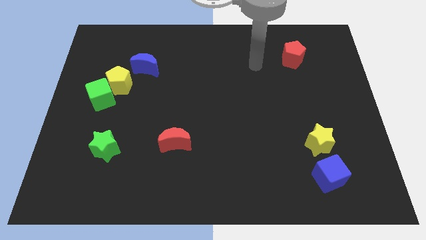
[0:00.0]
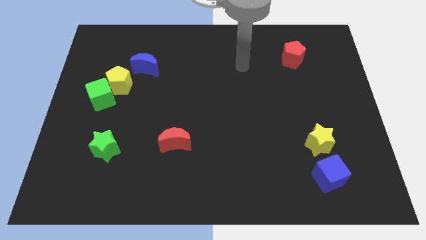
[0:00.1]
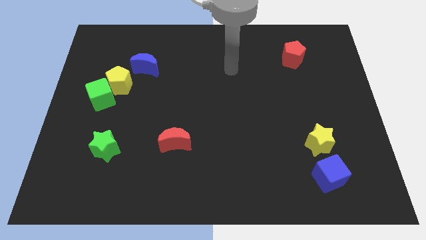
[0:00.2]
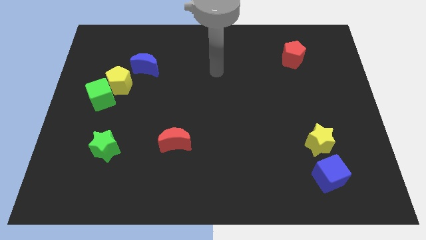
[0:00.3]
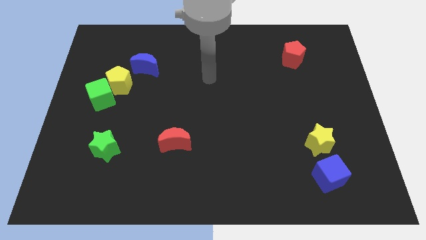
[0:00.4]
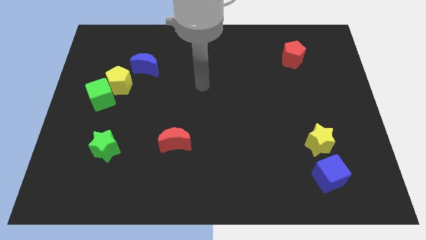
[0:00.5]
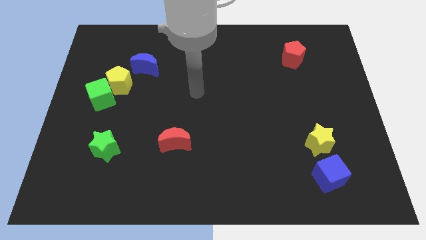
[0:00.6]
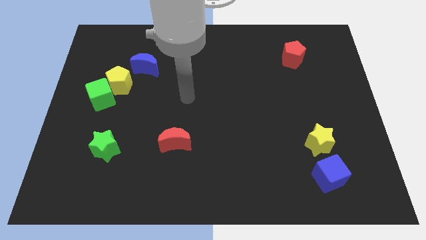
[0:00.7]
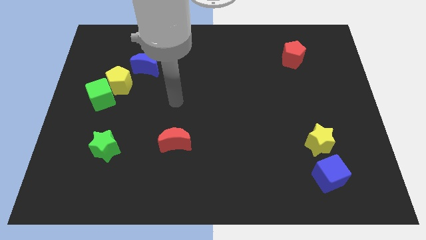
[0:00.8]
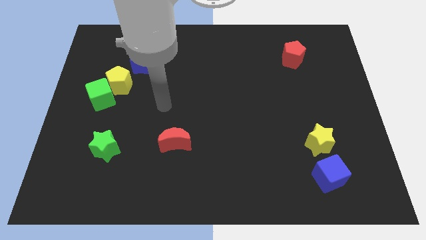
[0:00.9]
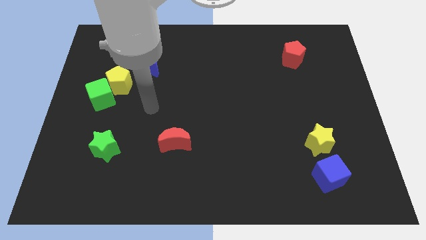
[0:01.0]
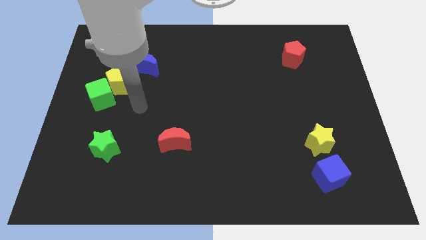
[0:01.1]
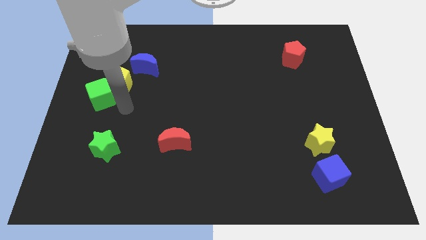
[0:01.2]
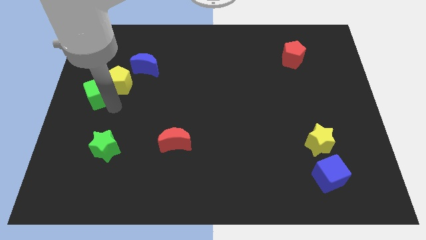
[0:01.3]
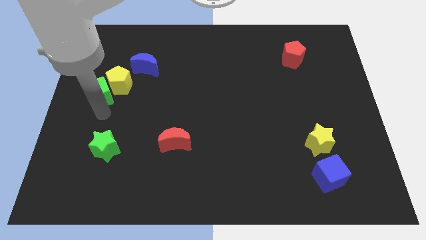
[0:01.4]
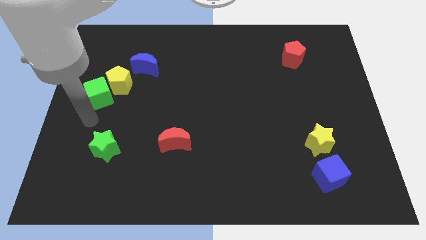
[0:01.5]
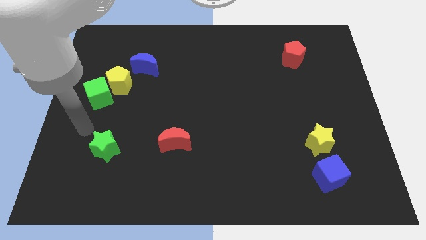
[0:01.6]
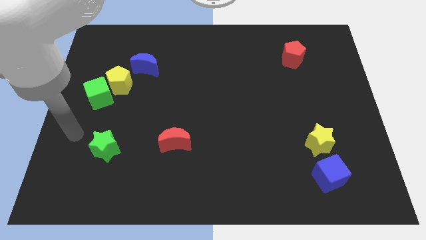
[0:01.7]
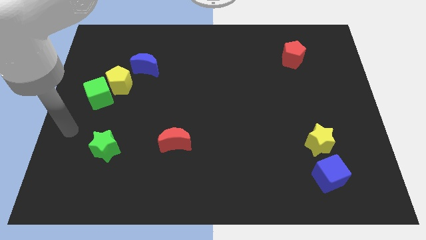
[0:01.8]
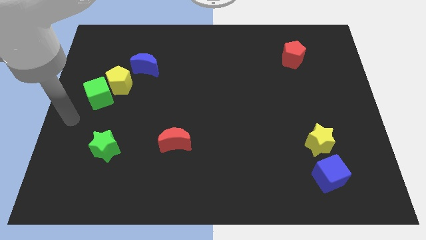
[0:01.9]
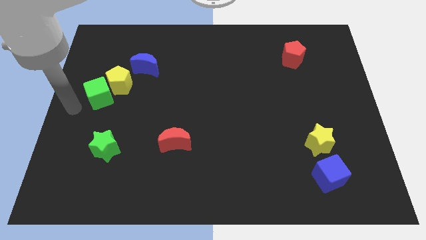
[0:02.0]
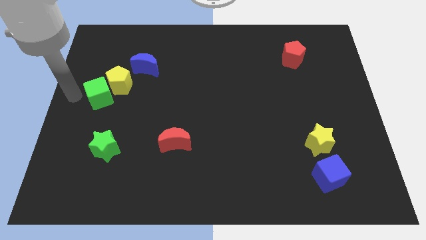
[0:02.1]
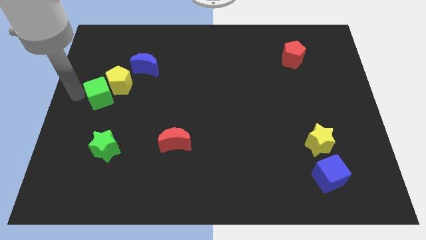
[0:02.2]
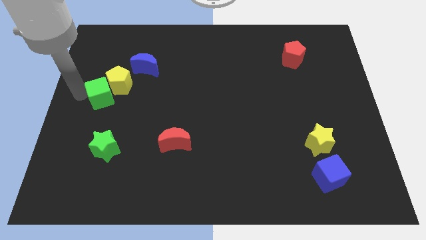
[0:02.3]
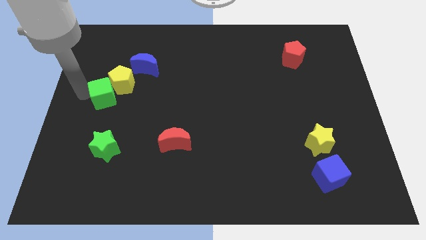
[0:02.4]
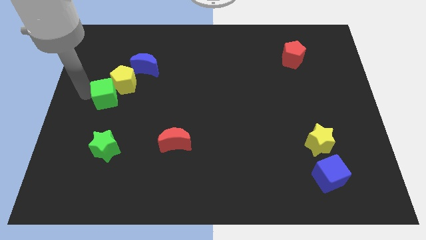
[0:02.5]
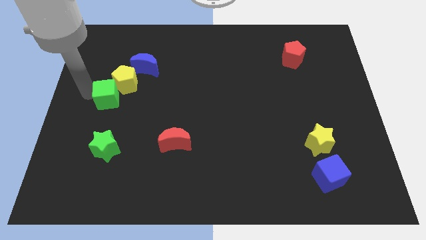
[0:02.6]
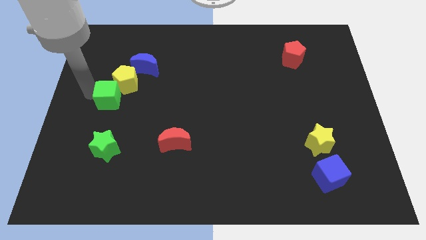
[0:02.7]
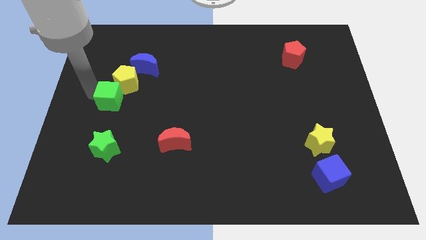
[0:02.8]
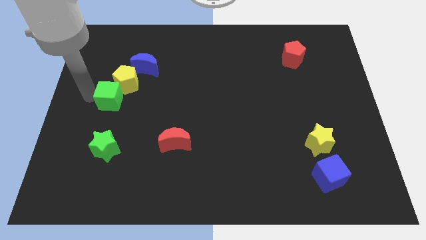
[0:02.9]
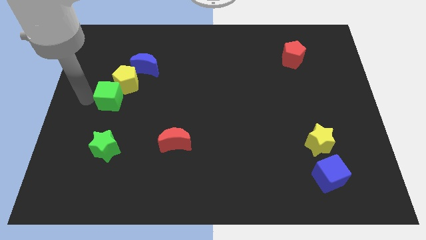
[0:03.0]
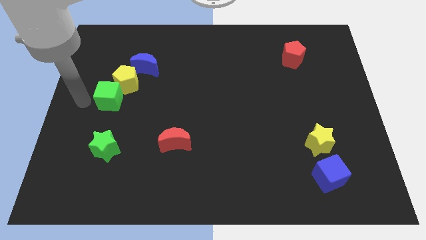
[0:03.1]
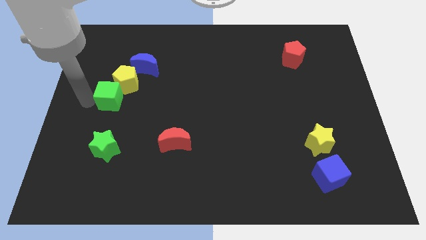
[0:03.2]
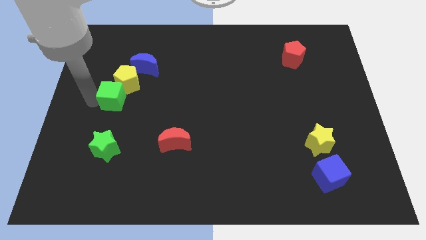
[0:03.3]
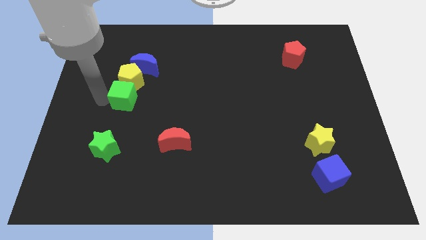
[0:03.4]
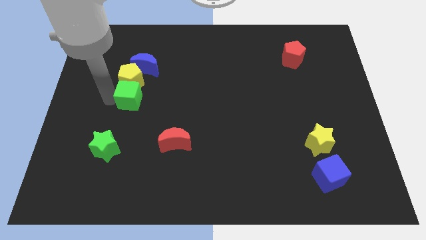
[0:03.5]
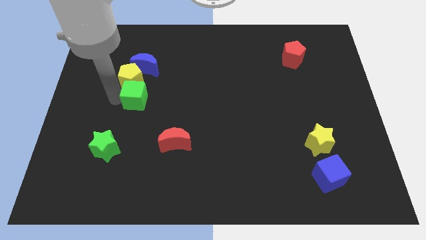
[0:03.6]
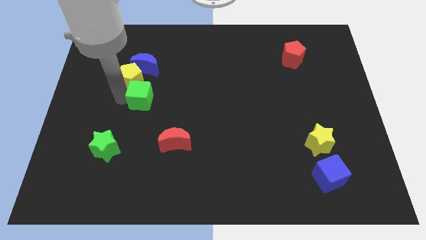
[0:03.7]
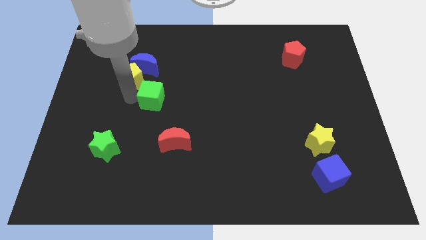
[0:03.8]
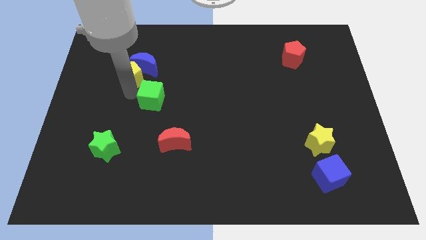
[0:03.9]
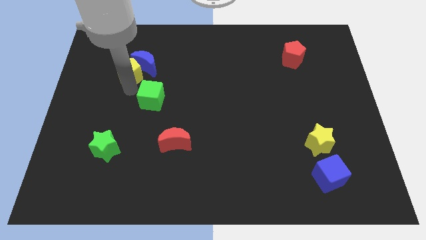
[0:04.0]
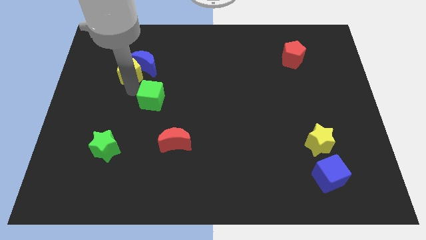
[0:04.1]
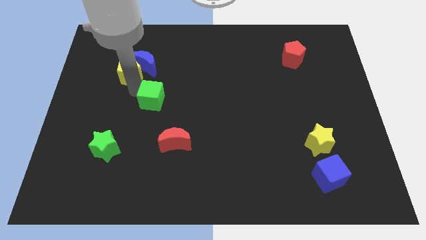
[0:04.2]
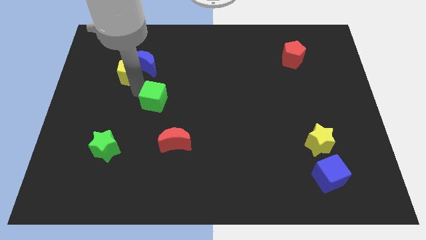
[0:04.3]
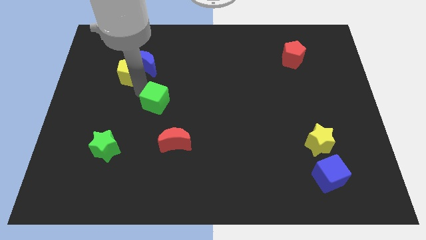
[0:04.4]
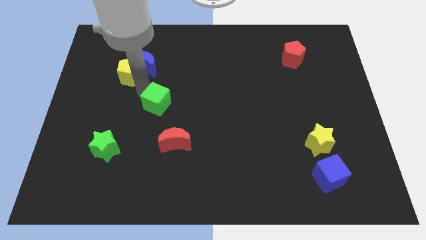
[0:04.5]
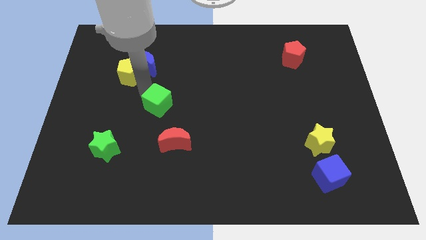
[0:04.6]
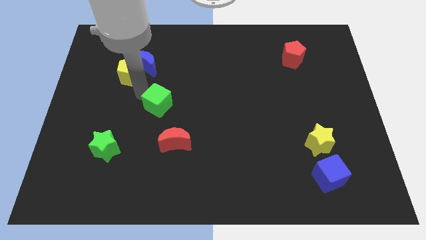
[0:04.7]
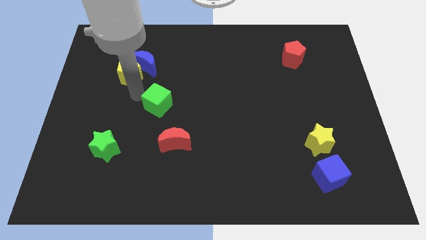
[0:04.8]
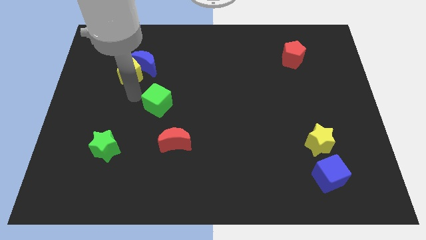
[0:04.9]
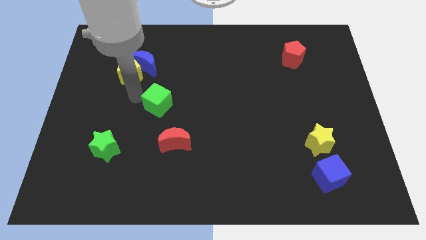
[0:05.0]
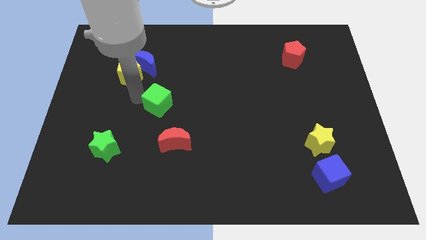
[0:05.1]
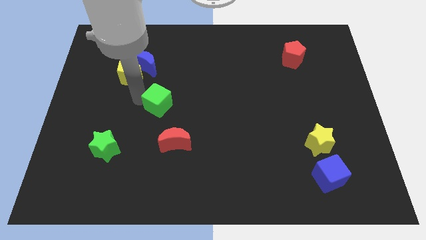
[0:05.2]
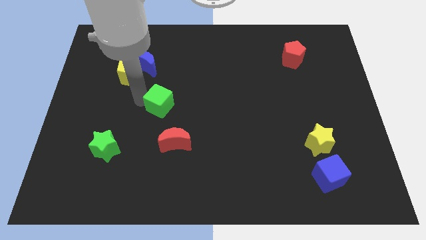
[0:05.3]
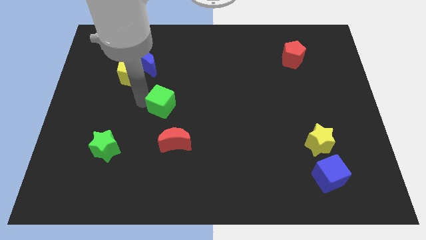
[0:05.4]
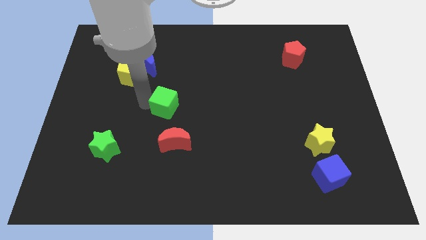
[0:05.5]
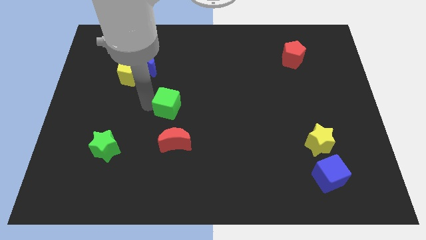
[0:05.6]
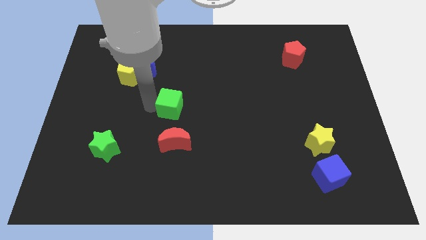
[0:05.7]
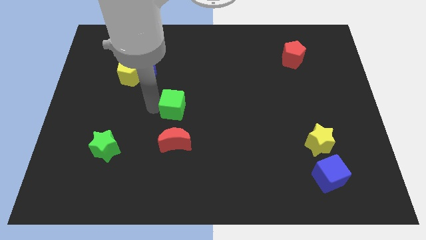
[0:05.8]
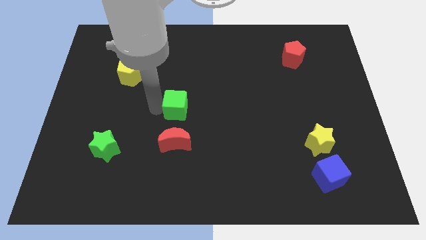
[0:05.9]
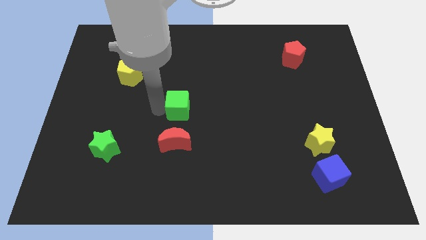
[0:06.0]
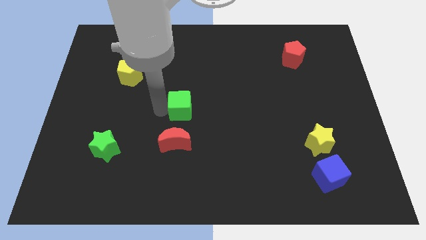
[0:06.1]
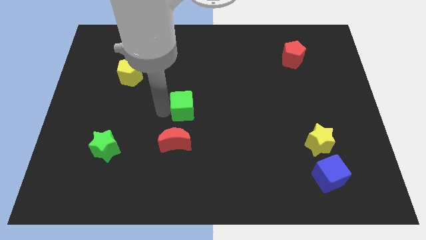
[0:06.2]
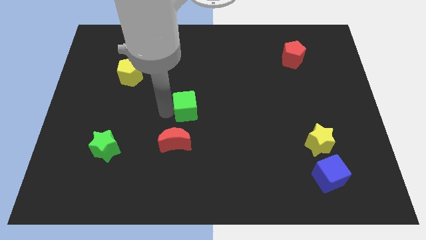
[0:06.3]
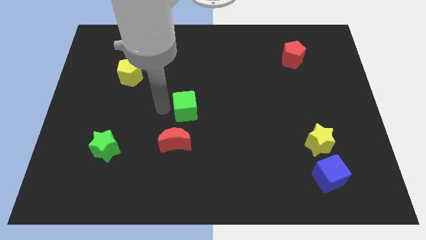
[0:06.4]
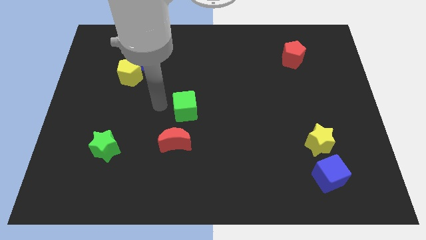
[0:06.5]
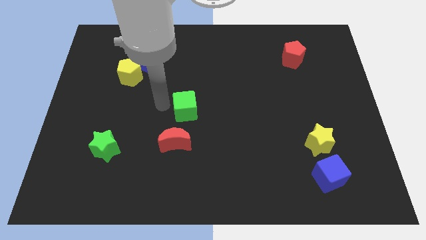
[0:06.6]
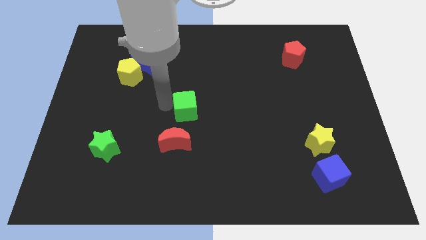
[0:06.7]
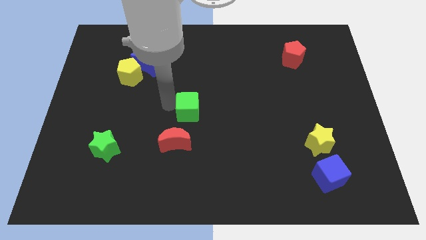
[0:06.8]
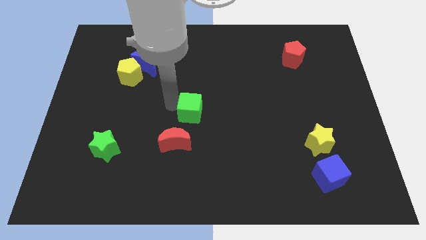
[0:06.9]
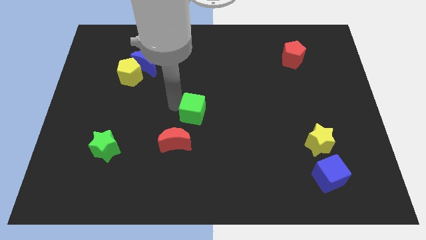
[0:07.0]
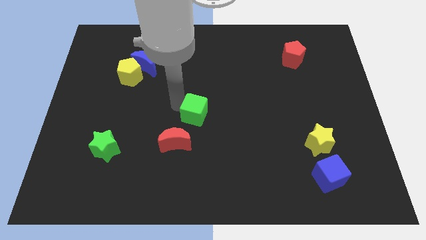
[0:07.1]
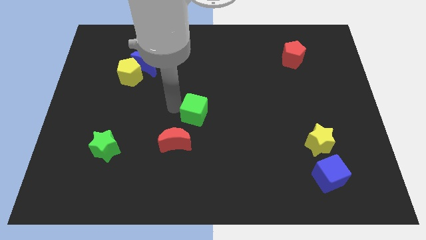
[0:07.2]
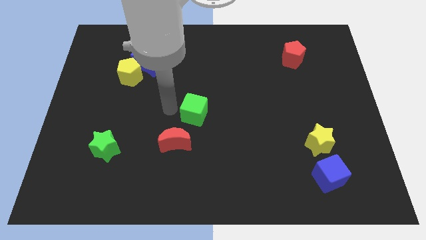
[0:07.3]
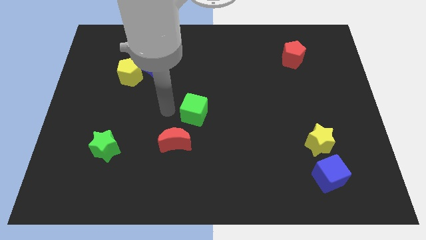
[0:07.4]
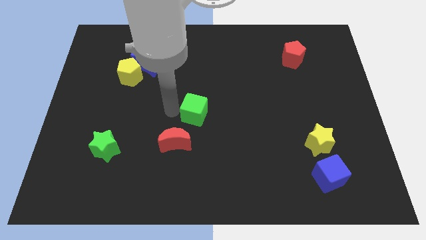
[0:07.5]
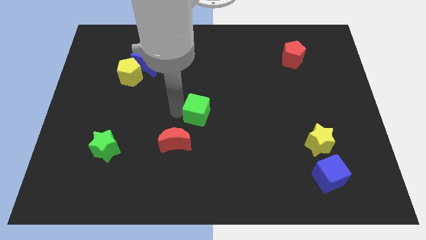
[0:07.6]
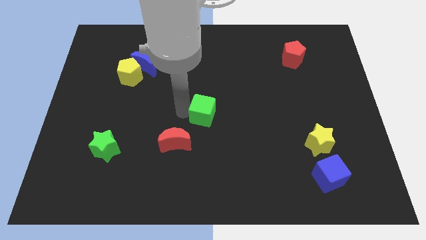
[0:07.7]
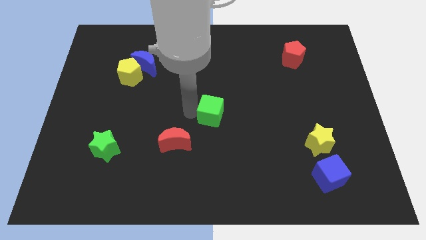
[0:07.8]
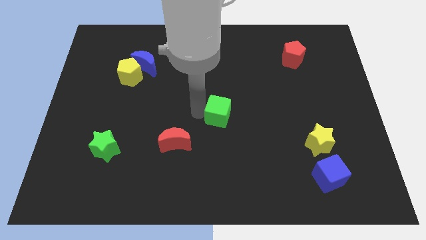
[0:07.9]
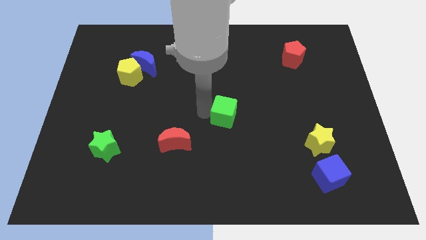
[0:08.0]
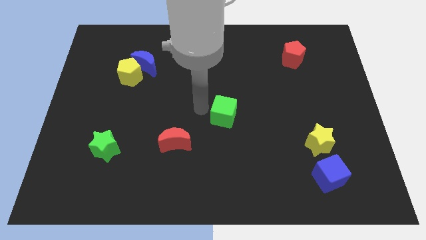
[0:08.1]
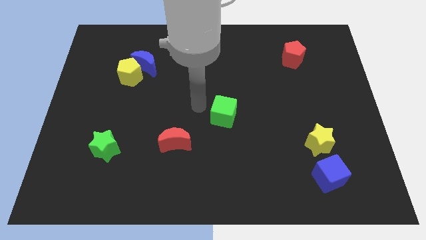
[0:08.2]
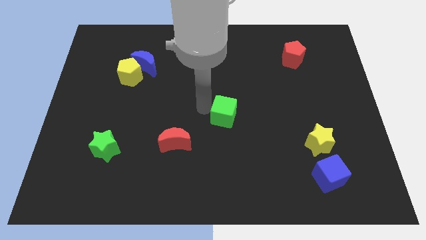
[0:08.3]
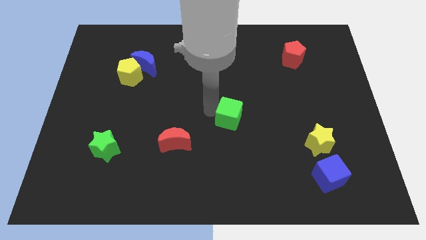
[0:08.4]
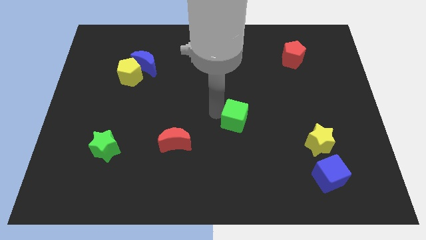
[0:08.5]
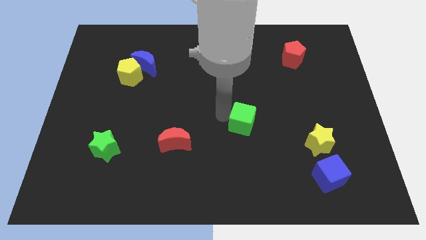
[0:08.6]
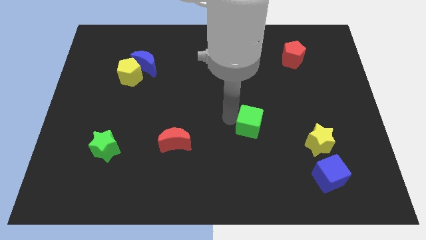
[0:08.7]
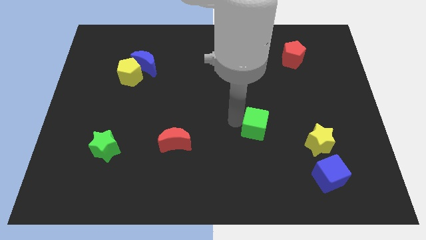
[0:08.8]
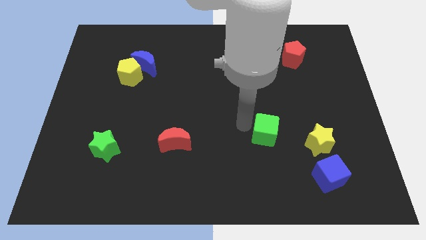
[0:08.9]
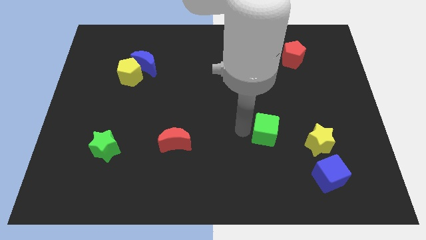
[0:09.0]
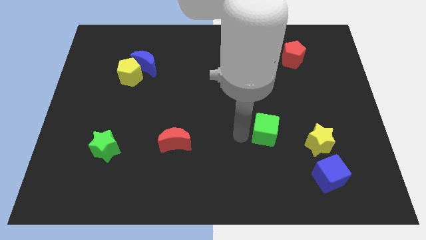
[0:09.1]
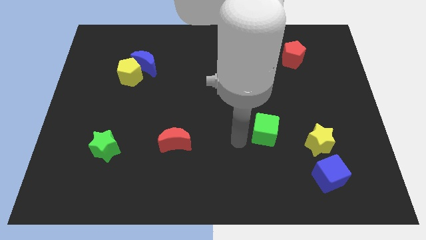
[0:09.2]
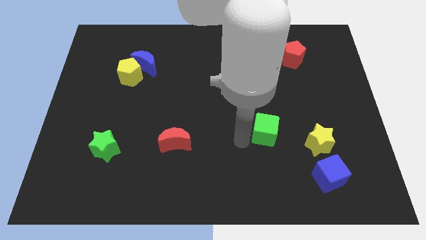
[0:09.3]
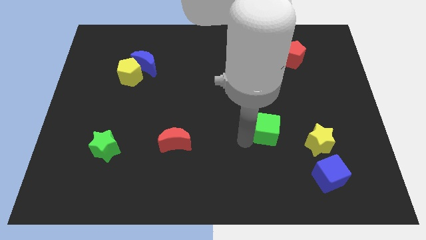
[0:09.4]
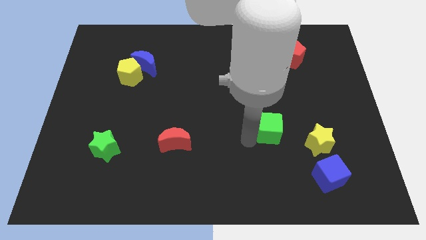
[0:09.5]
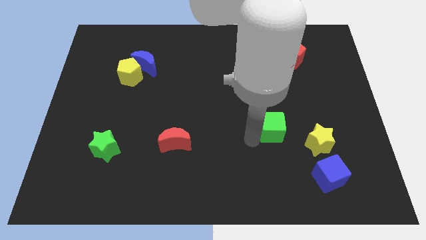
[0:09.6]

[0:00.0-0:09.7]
push the green cube diagonally up and to the left of the yellow star
